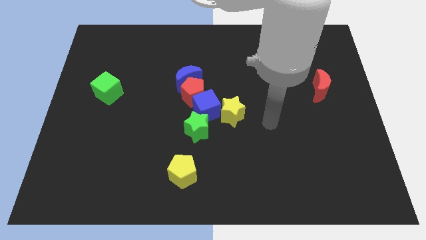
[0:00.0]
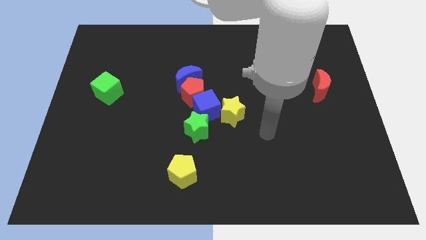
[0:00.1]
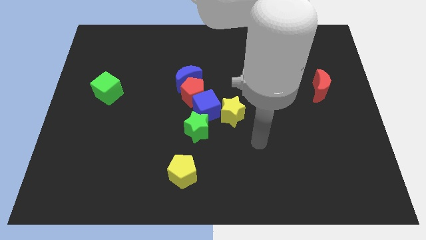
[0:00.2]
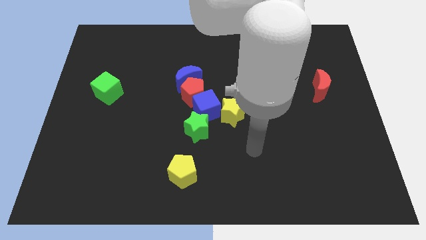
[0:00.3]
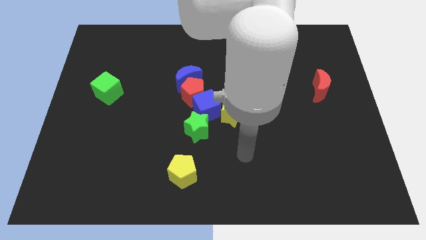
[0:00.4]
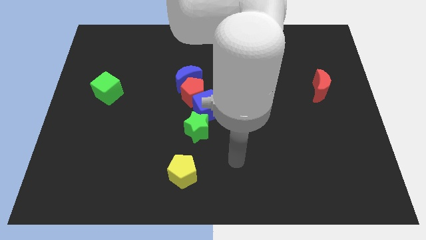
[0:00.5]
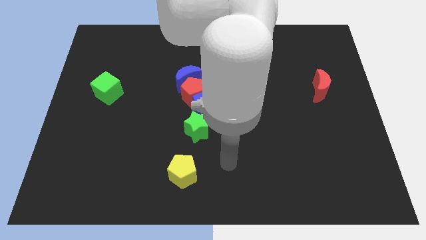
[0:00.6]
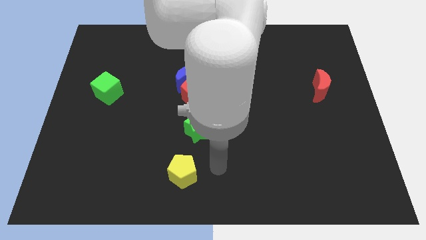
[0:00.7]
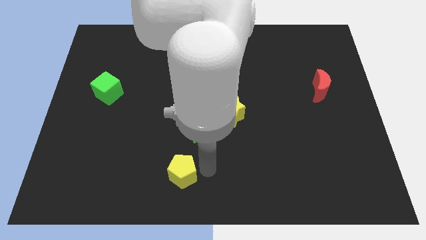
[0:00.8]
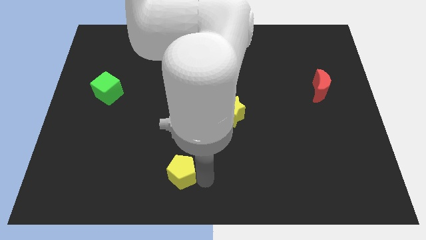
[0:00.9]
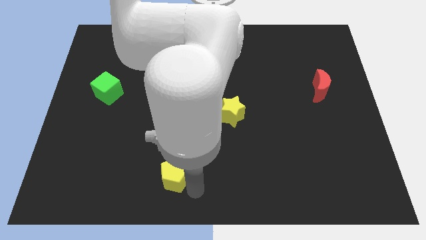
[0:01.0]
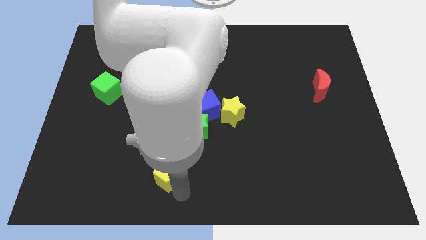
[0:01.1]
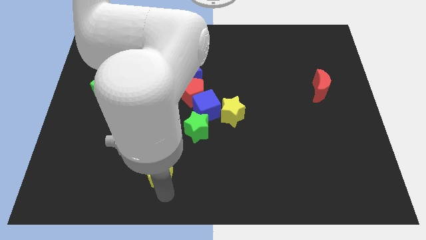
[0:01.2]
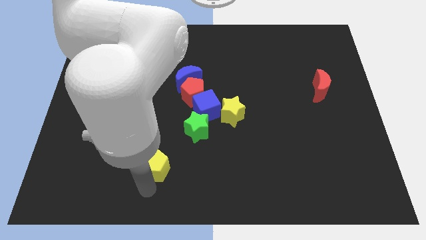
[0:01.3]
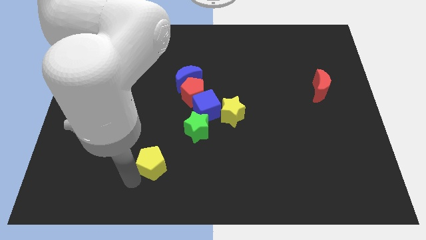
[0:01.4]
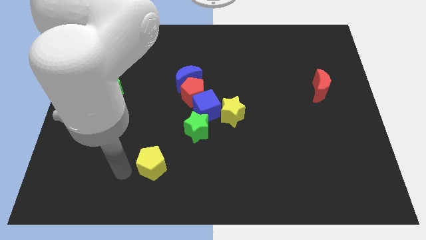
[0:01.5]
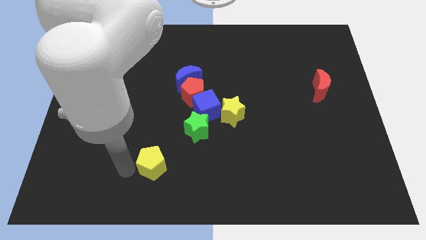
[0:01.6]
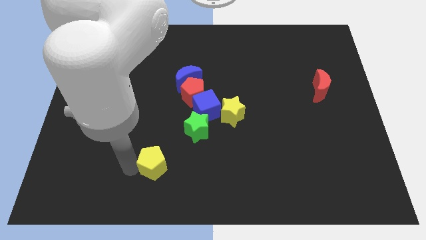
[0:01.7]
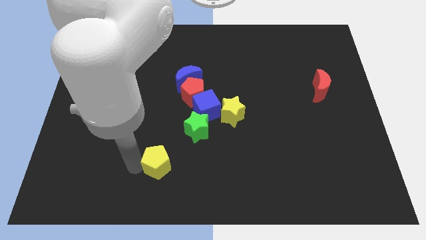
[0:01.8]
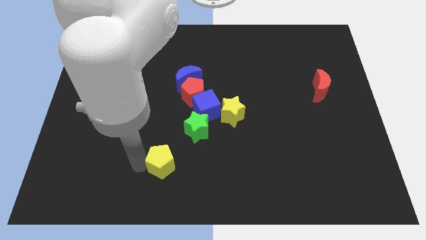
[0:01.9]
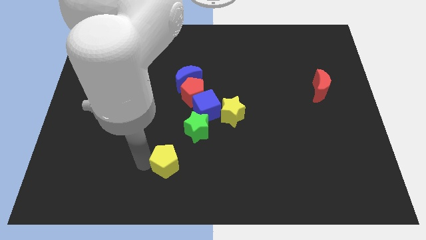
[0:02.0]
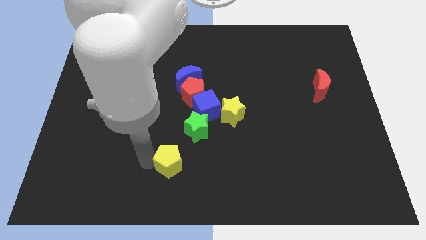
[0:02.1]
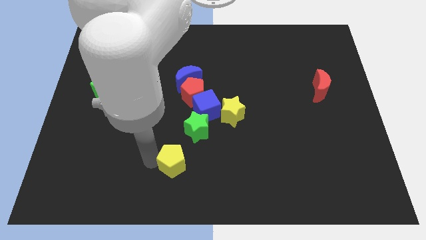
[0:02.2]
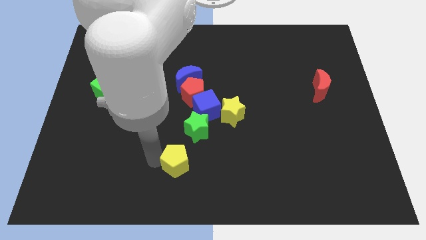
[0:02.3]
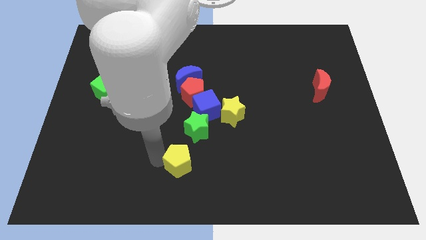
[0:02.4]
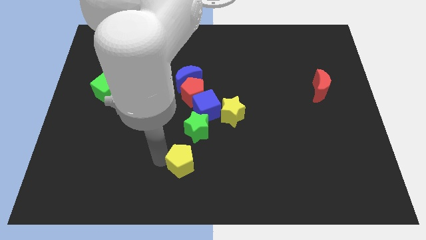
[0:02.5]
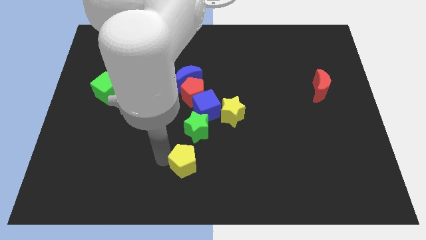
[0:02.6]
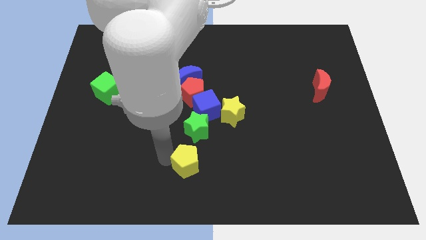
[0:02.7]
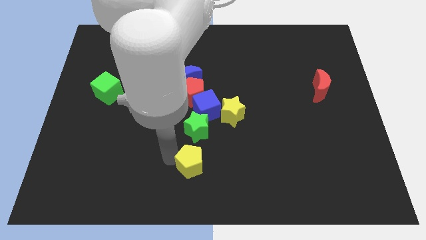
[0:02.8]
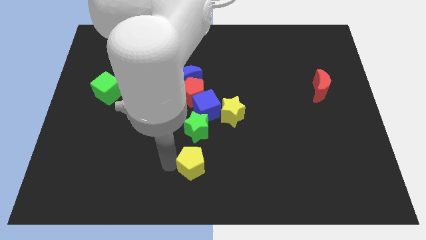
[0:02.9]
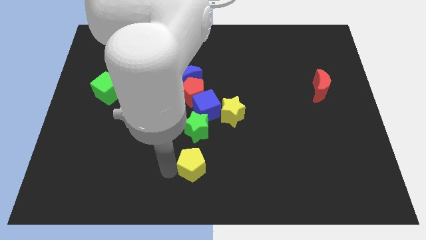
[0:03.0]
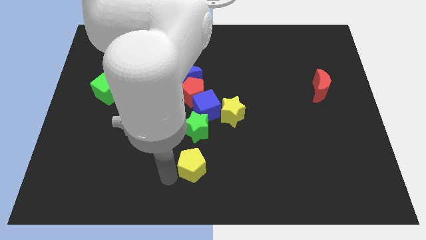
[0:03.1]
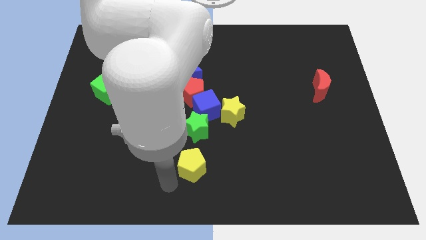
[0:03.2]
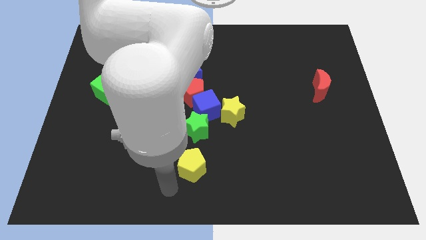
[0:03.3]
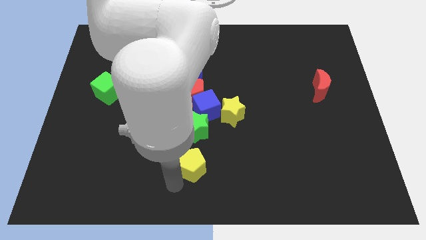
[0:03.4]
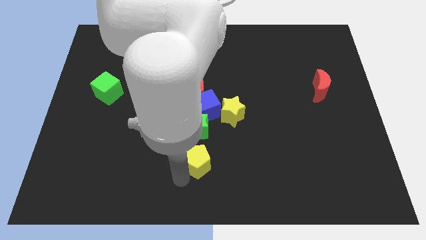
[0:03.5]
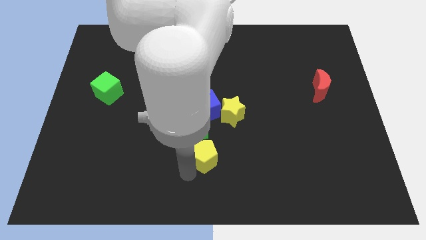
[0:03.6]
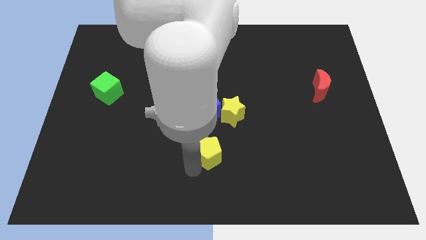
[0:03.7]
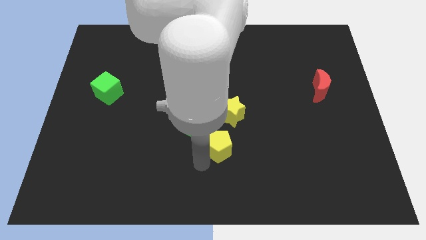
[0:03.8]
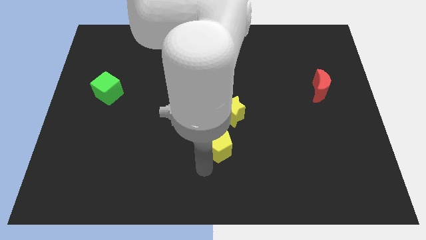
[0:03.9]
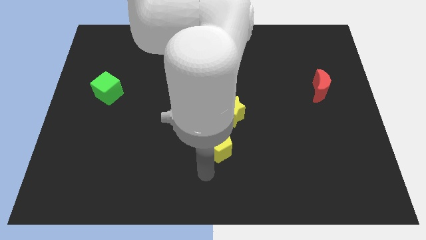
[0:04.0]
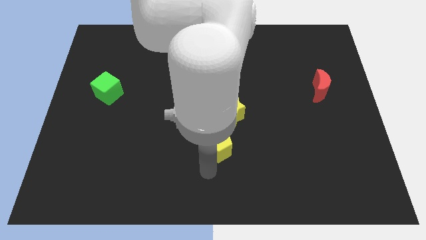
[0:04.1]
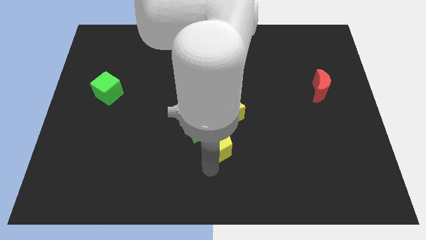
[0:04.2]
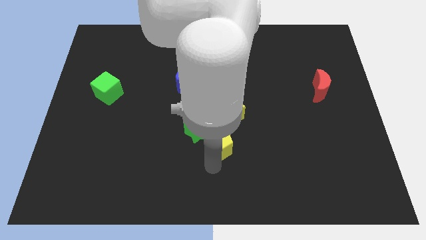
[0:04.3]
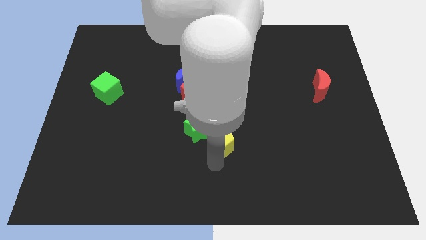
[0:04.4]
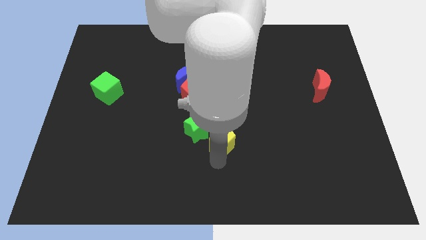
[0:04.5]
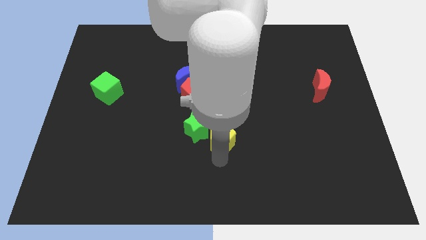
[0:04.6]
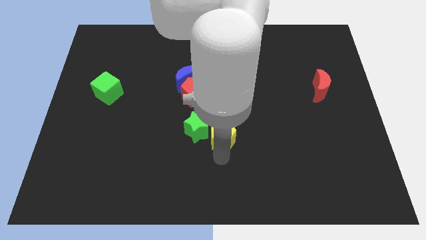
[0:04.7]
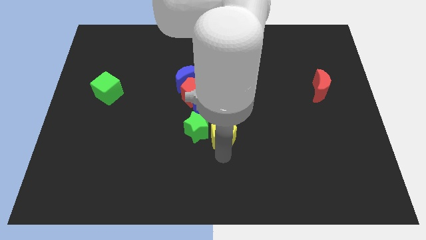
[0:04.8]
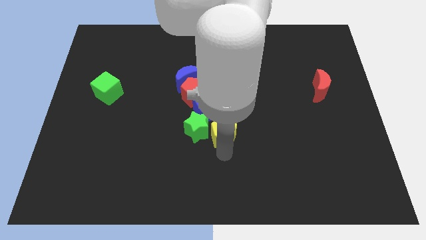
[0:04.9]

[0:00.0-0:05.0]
move the yellow pentagon close to the yellow star

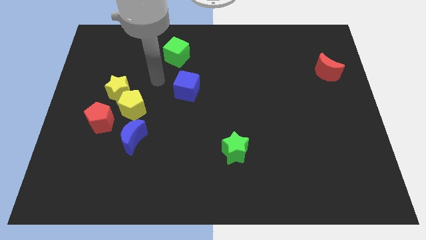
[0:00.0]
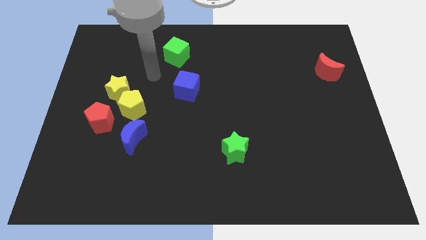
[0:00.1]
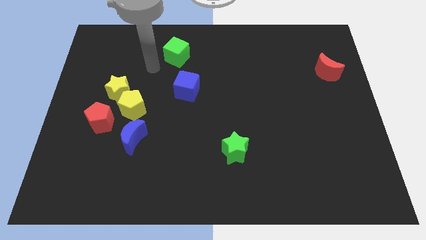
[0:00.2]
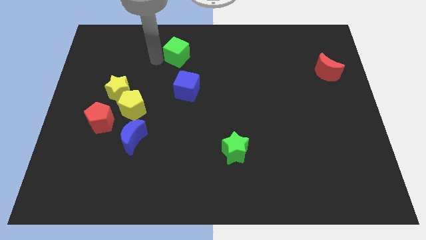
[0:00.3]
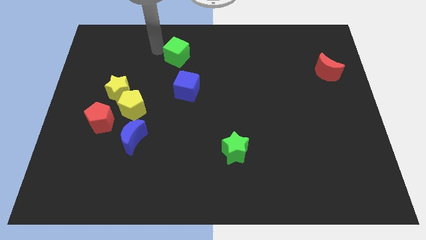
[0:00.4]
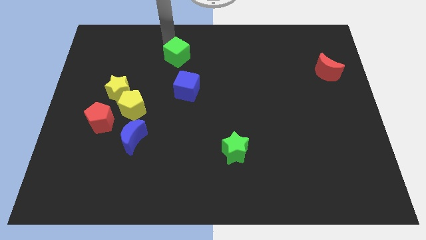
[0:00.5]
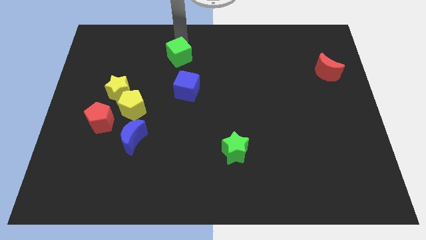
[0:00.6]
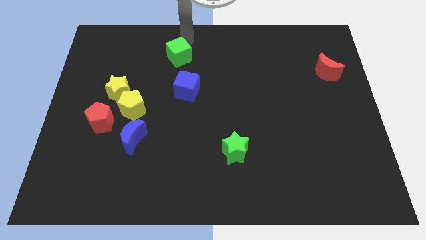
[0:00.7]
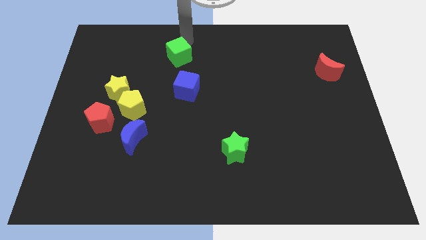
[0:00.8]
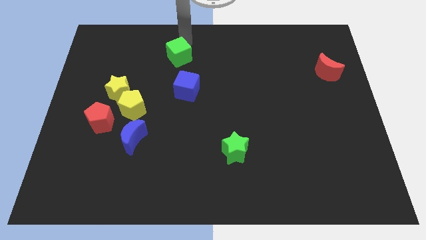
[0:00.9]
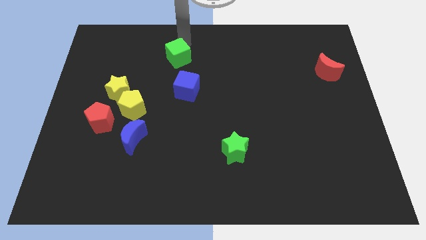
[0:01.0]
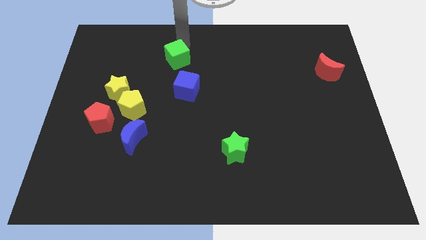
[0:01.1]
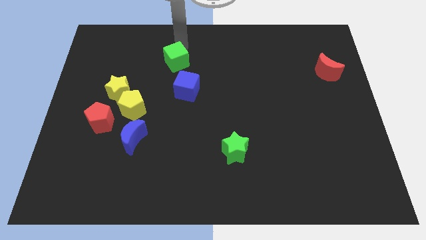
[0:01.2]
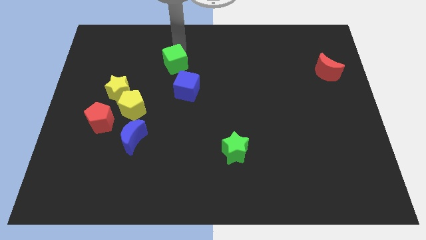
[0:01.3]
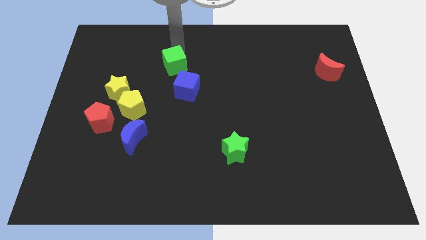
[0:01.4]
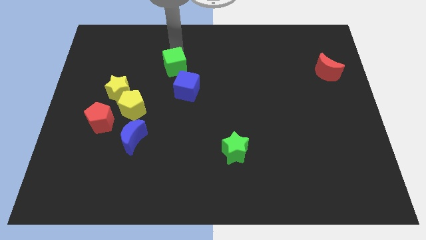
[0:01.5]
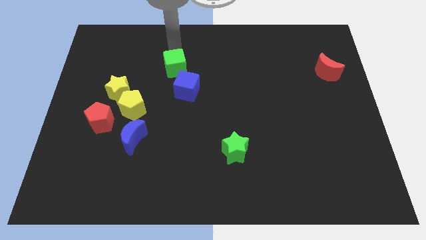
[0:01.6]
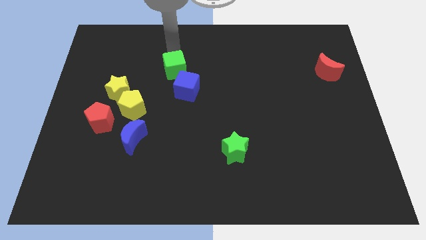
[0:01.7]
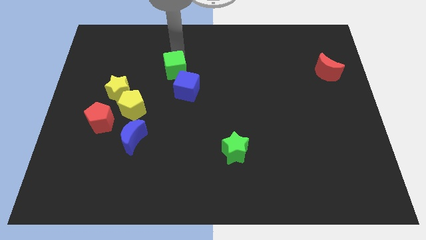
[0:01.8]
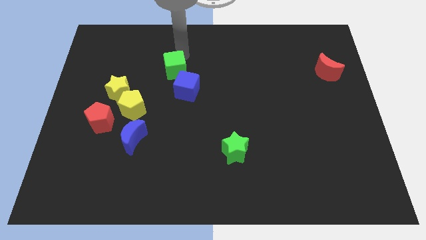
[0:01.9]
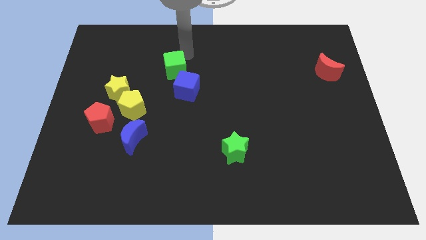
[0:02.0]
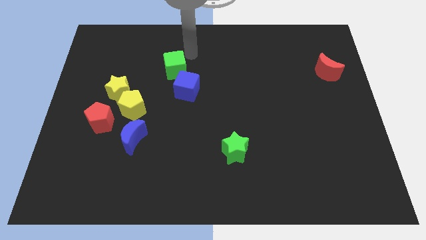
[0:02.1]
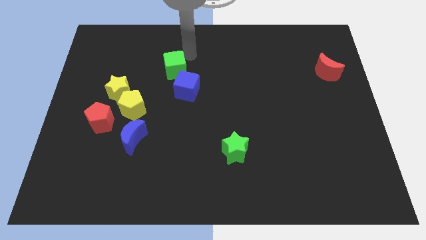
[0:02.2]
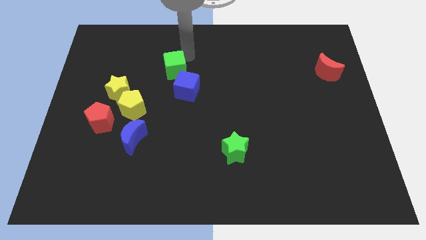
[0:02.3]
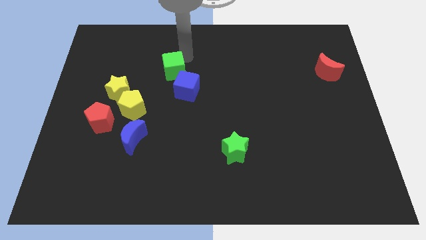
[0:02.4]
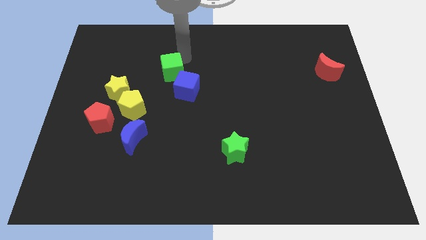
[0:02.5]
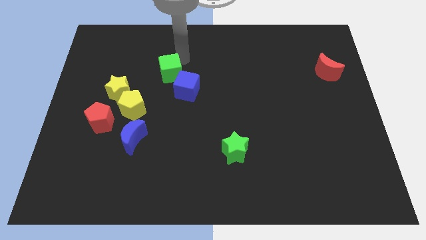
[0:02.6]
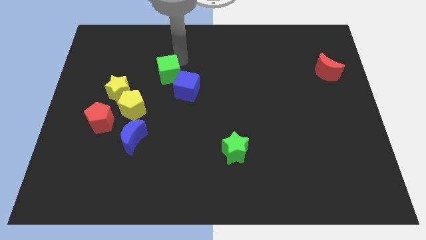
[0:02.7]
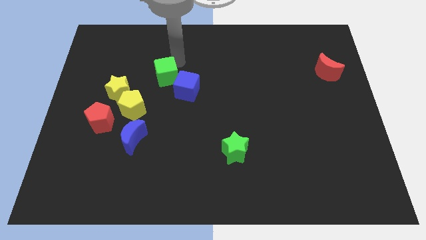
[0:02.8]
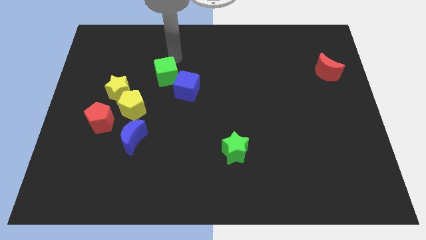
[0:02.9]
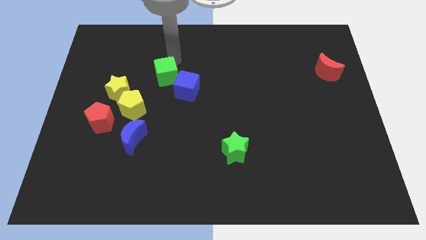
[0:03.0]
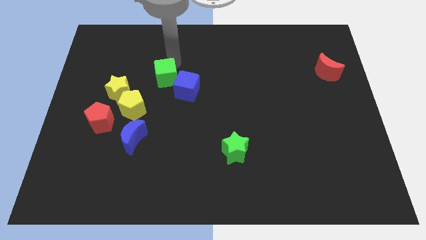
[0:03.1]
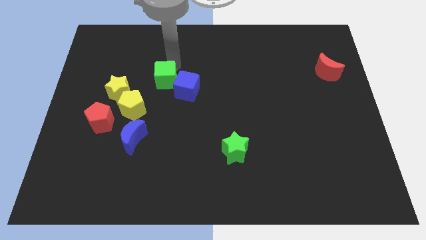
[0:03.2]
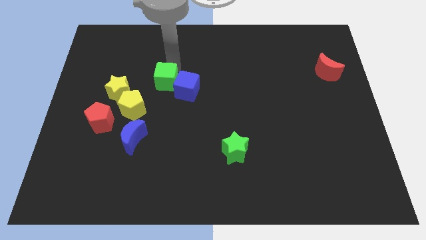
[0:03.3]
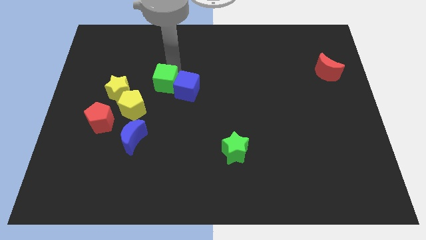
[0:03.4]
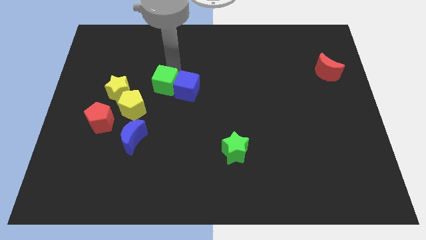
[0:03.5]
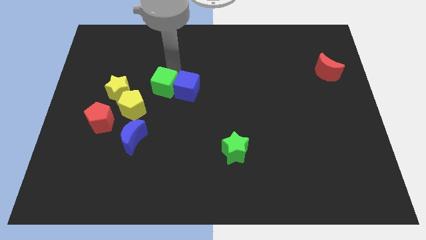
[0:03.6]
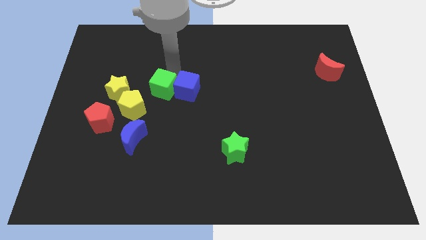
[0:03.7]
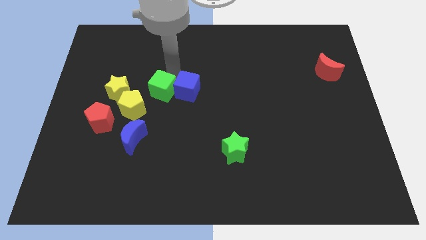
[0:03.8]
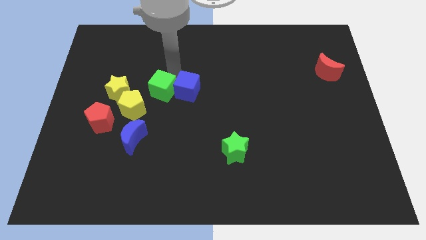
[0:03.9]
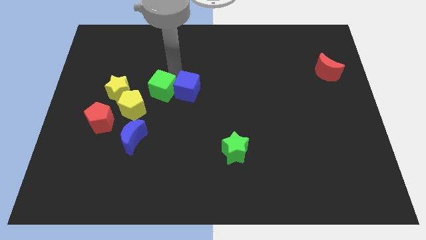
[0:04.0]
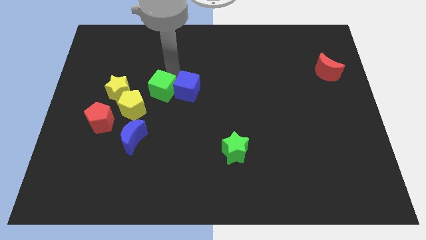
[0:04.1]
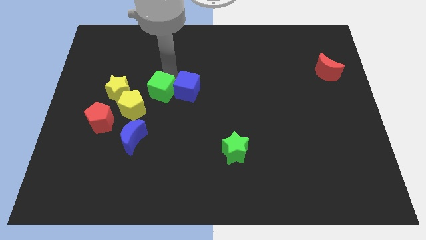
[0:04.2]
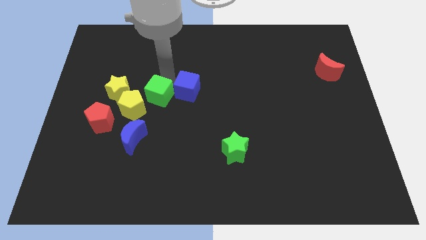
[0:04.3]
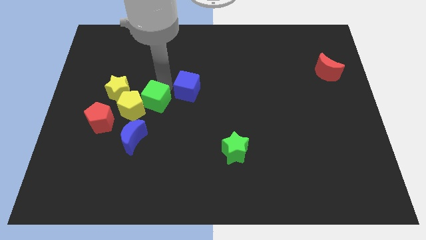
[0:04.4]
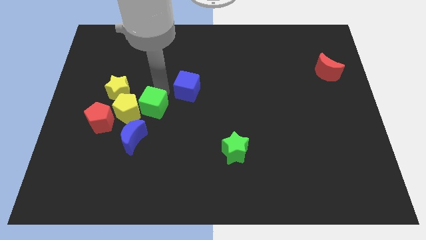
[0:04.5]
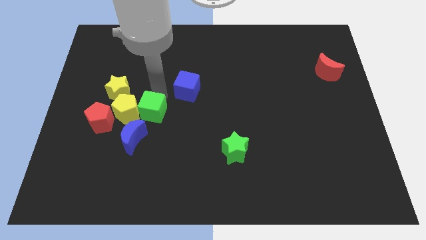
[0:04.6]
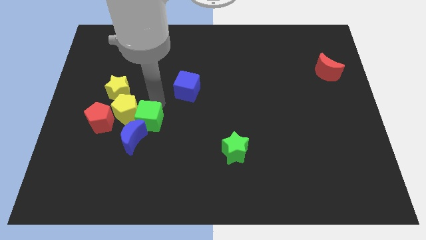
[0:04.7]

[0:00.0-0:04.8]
slide the green cube close to the blue moon
